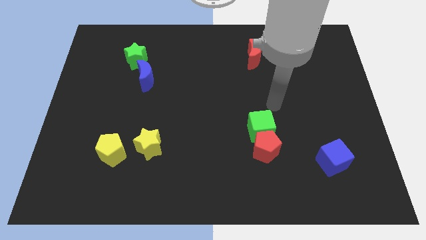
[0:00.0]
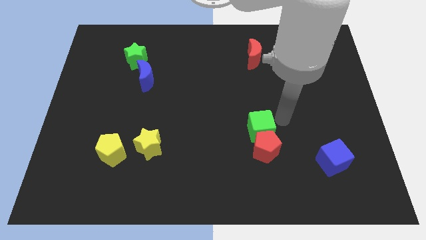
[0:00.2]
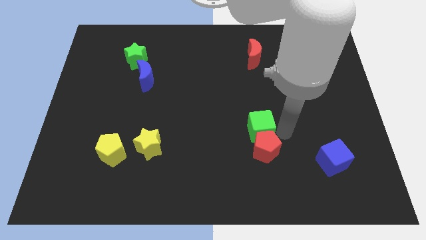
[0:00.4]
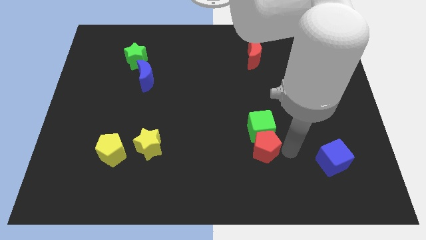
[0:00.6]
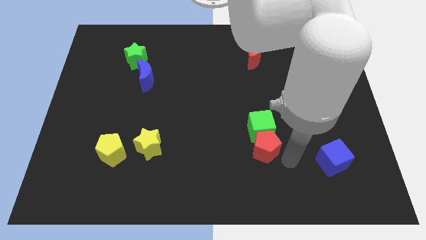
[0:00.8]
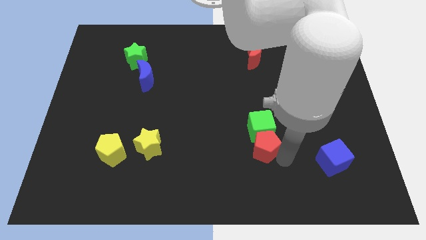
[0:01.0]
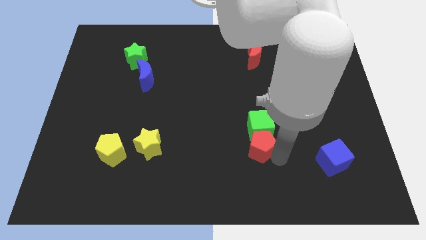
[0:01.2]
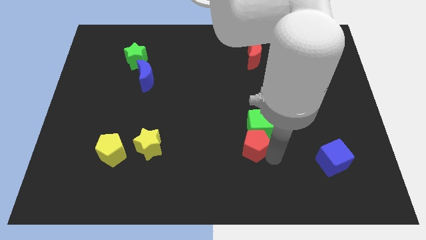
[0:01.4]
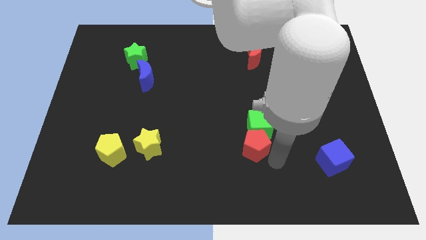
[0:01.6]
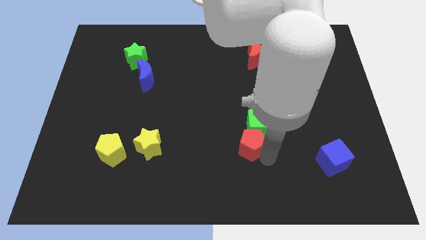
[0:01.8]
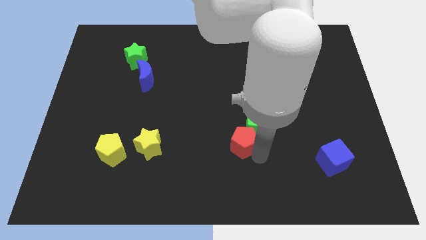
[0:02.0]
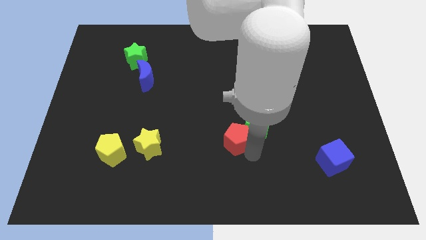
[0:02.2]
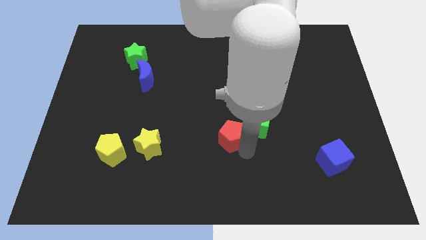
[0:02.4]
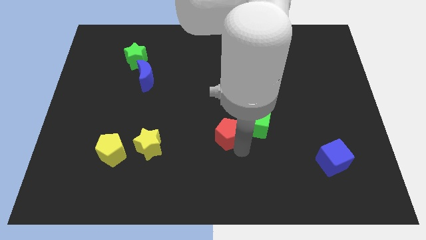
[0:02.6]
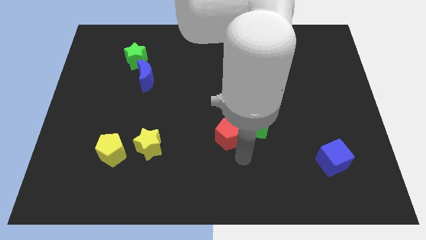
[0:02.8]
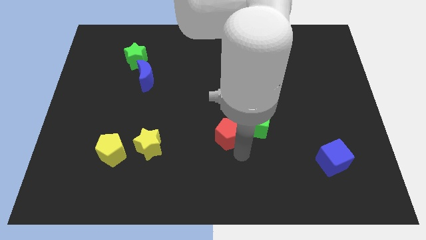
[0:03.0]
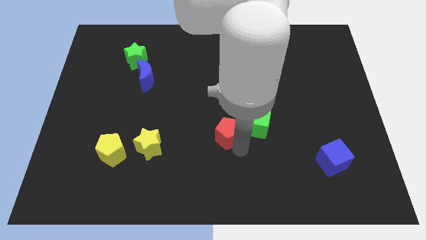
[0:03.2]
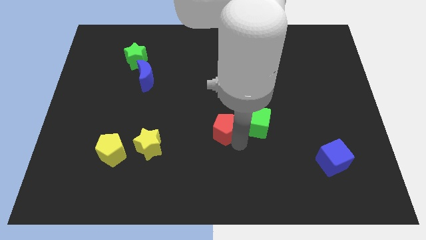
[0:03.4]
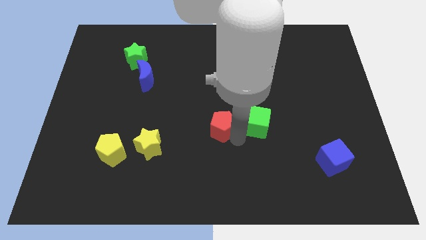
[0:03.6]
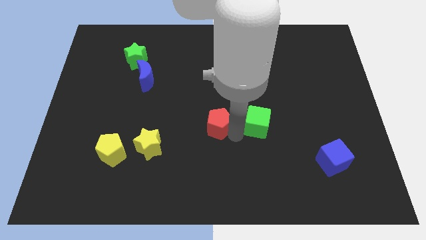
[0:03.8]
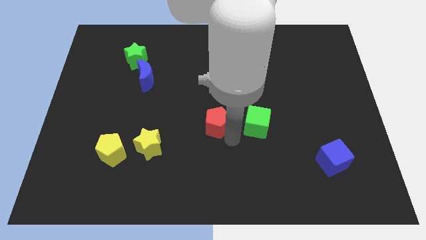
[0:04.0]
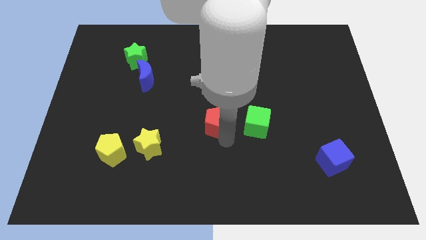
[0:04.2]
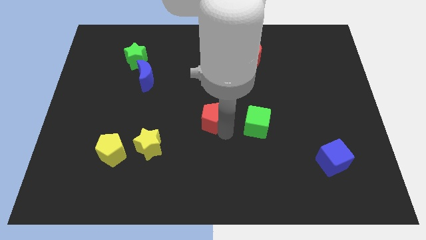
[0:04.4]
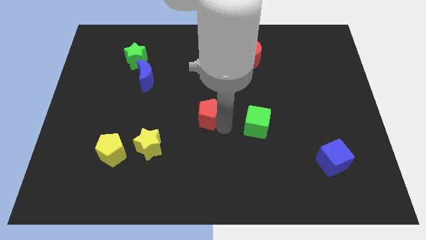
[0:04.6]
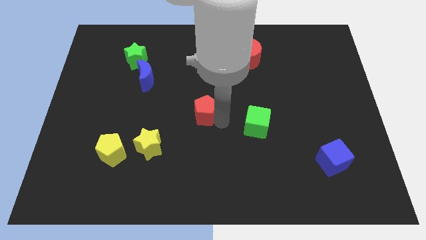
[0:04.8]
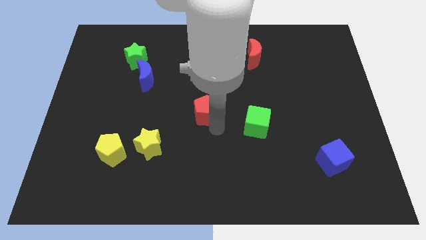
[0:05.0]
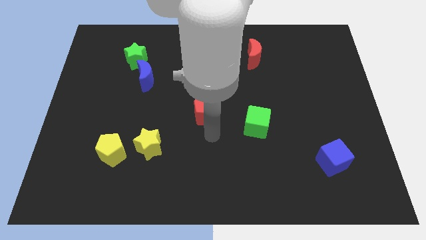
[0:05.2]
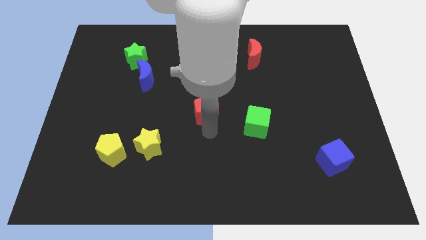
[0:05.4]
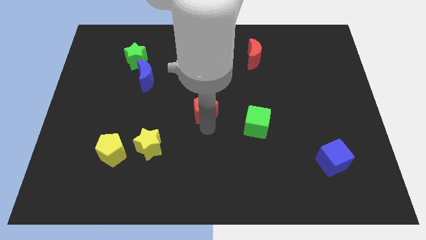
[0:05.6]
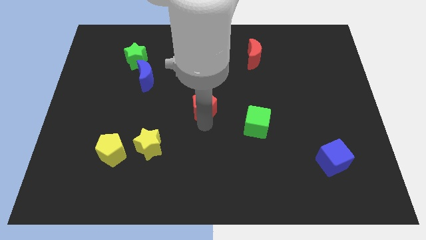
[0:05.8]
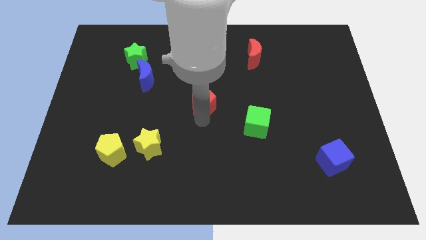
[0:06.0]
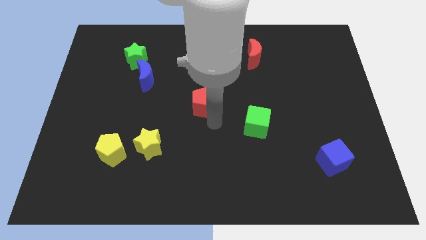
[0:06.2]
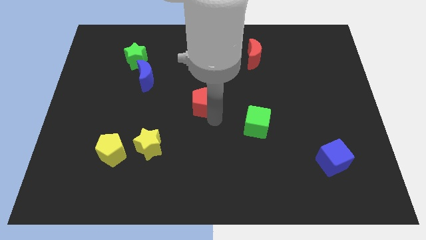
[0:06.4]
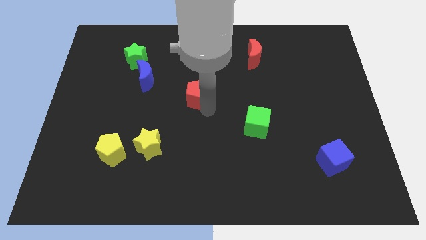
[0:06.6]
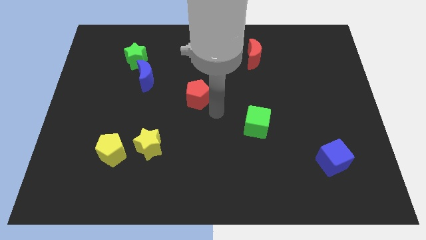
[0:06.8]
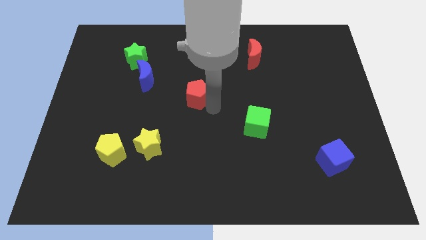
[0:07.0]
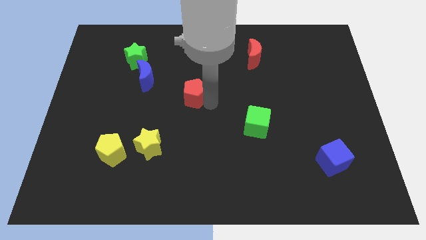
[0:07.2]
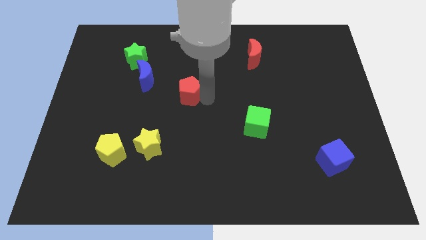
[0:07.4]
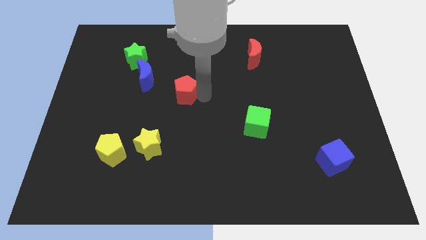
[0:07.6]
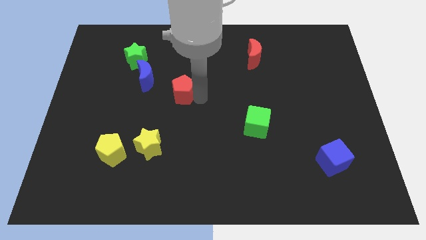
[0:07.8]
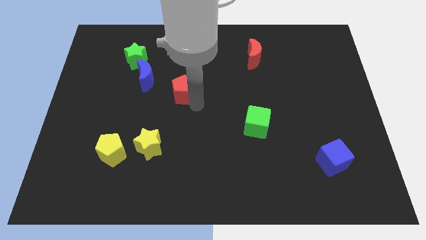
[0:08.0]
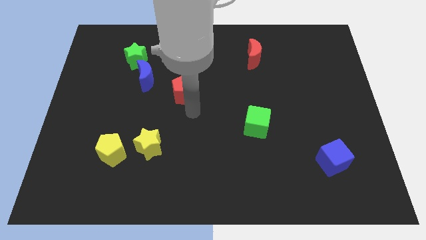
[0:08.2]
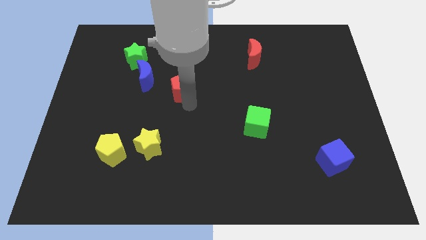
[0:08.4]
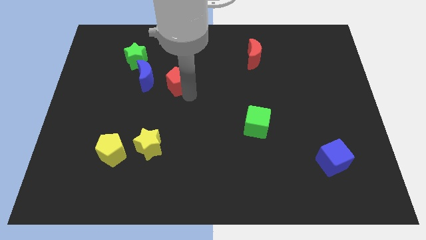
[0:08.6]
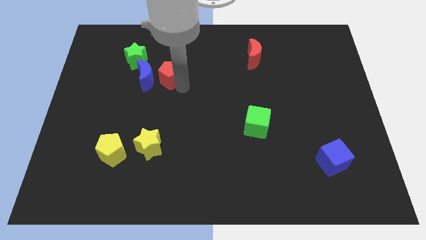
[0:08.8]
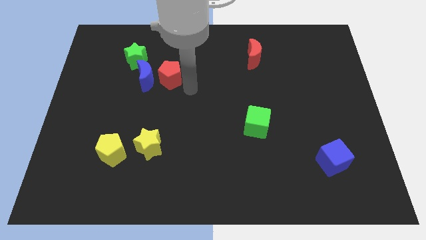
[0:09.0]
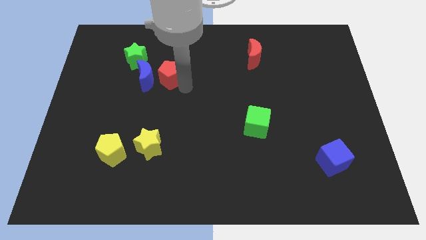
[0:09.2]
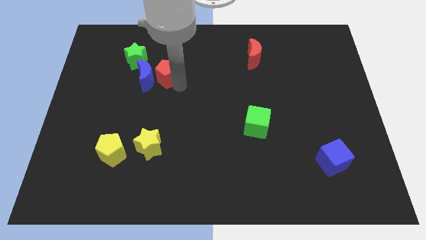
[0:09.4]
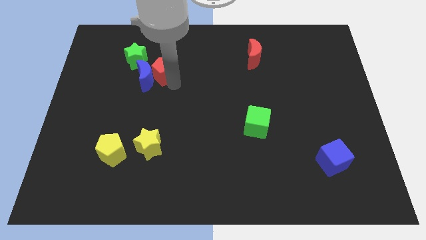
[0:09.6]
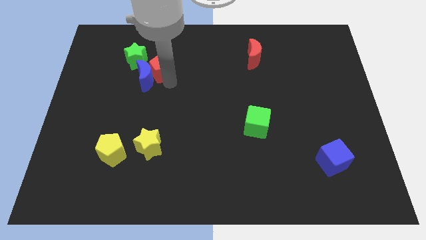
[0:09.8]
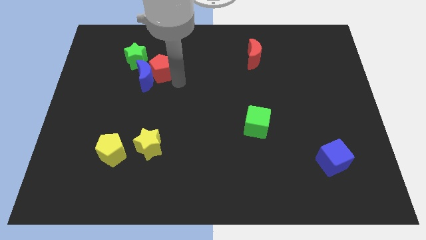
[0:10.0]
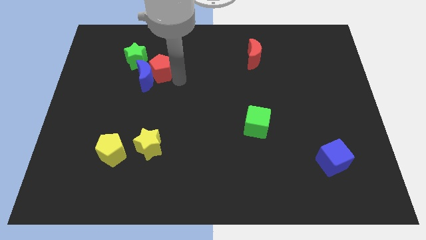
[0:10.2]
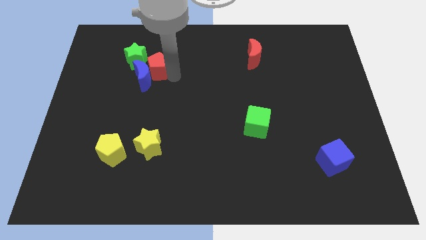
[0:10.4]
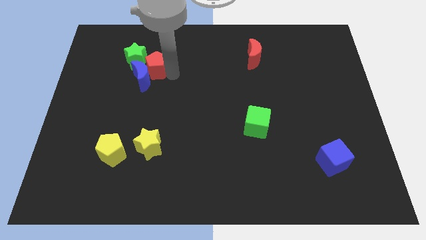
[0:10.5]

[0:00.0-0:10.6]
move the red pentagon towards the green star

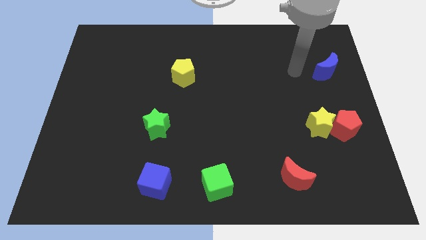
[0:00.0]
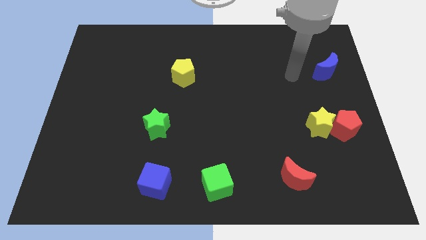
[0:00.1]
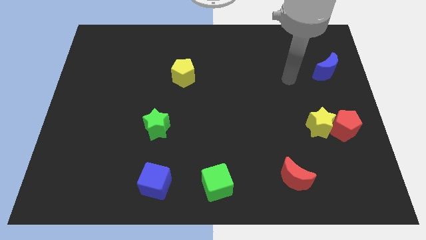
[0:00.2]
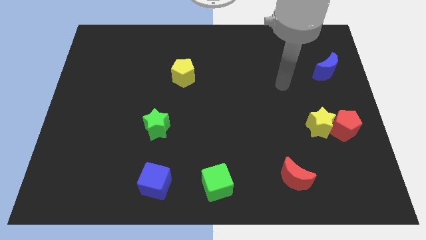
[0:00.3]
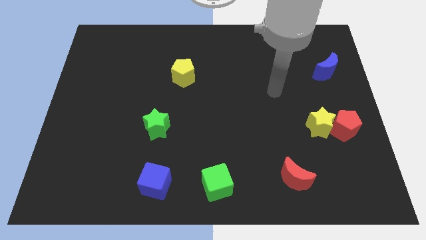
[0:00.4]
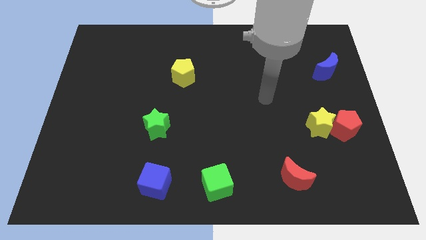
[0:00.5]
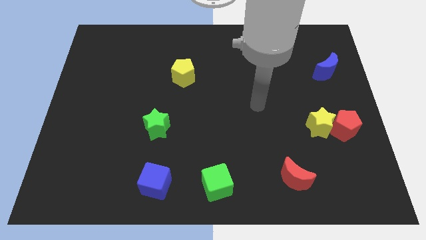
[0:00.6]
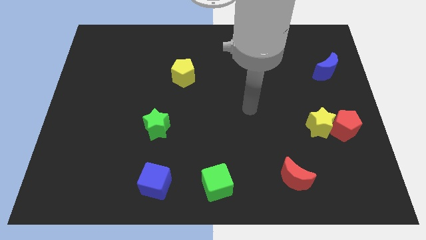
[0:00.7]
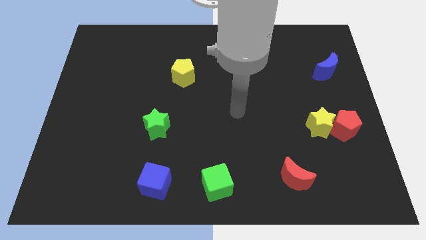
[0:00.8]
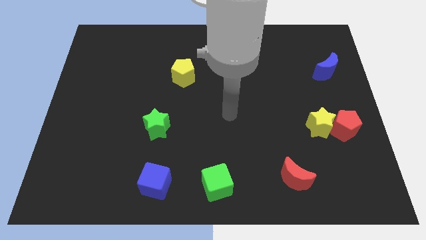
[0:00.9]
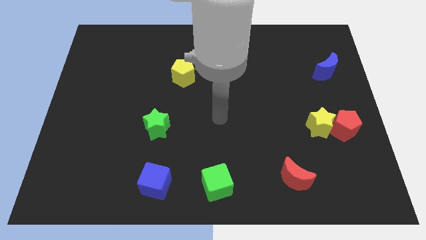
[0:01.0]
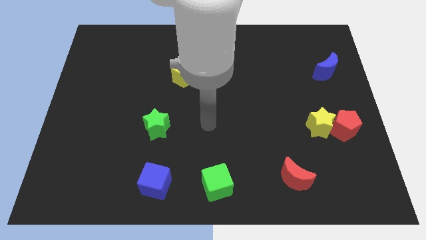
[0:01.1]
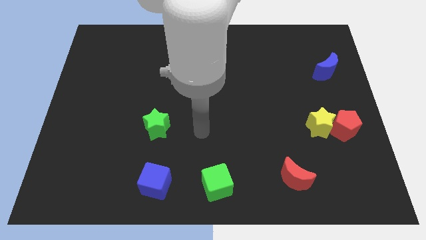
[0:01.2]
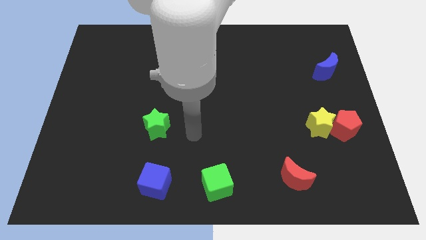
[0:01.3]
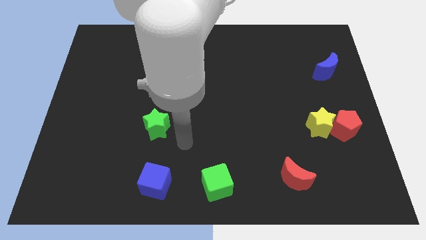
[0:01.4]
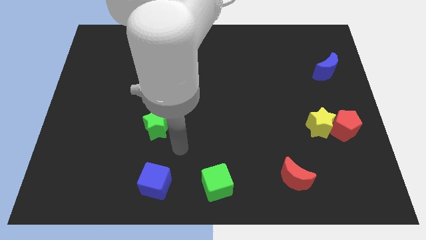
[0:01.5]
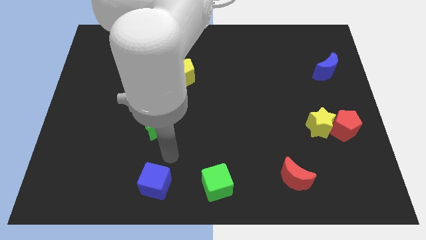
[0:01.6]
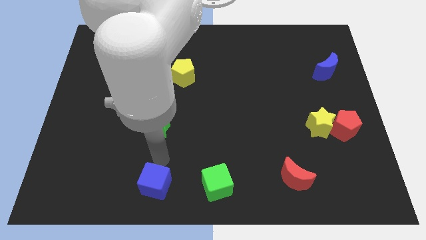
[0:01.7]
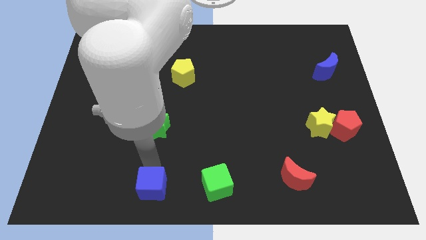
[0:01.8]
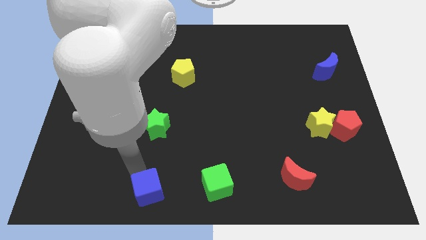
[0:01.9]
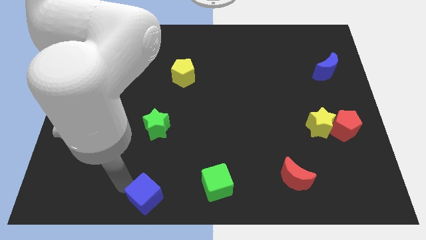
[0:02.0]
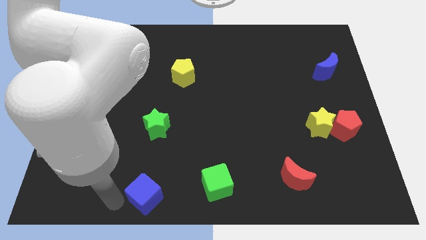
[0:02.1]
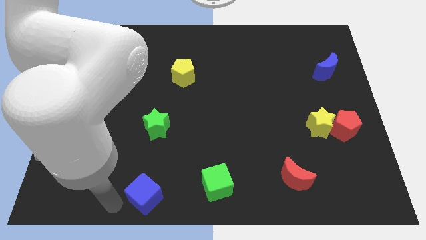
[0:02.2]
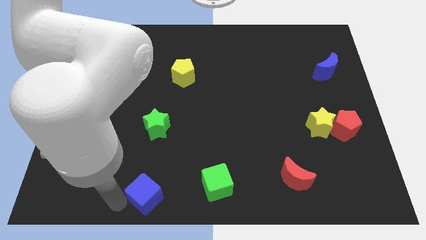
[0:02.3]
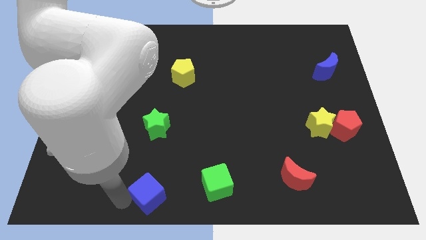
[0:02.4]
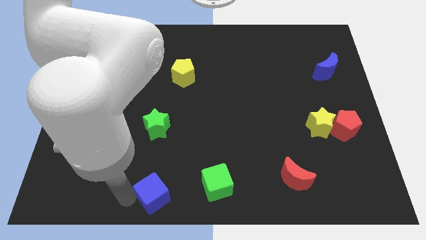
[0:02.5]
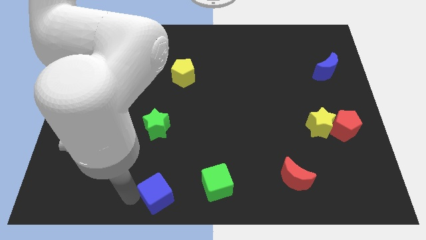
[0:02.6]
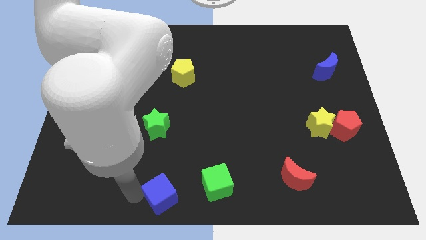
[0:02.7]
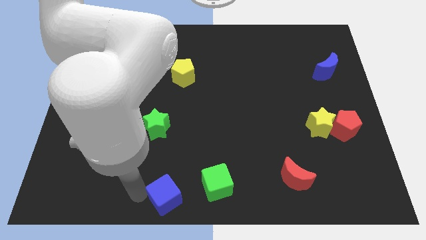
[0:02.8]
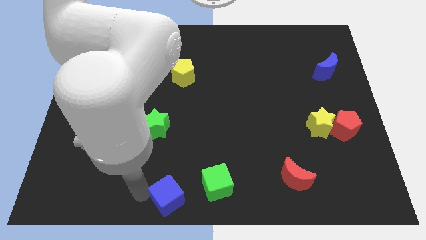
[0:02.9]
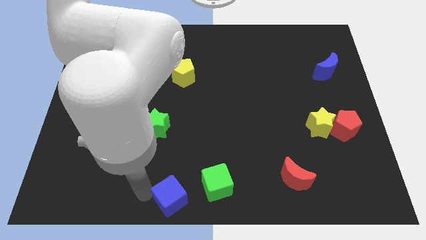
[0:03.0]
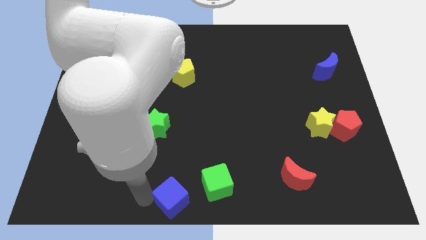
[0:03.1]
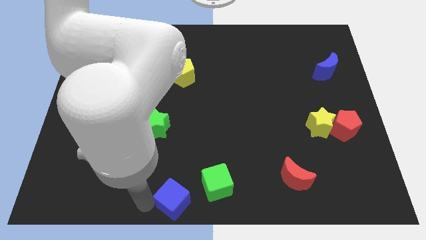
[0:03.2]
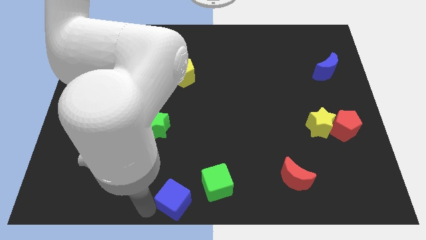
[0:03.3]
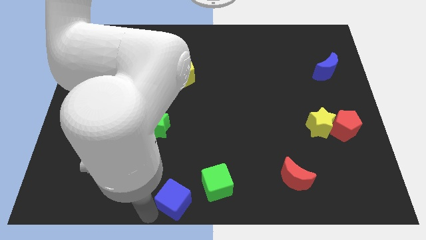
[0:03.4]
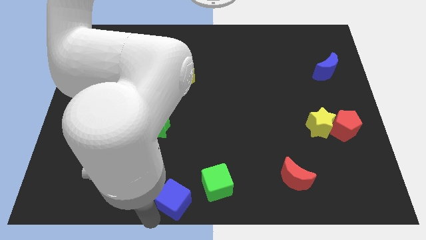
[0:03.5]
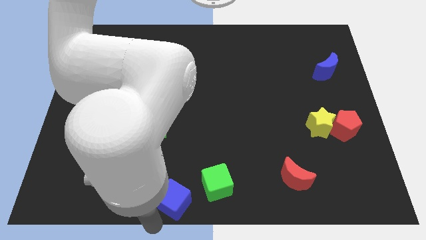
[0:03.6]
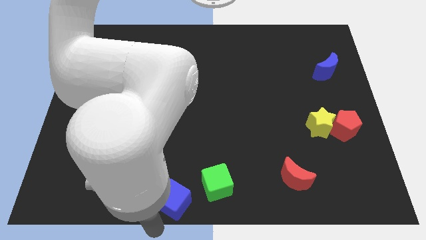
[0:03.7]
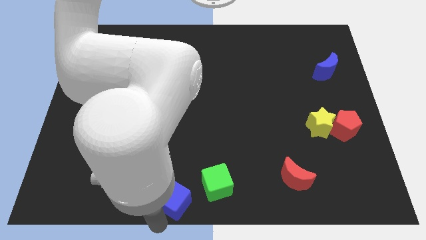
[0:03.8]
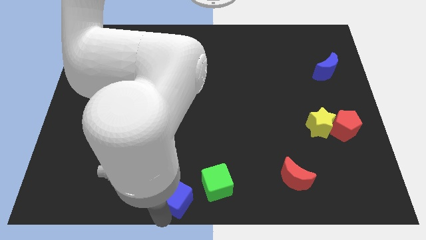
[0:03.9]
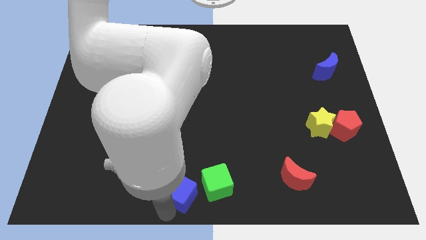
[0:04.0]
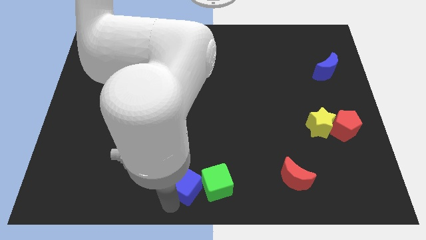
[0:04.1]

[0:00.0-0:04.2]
put the blue cube to the green cube
